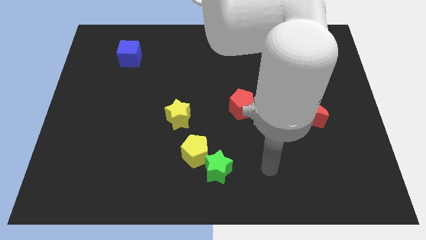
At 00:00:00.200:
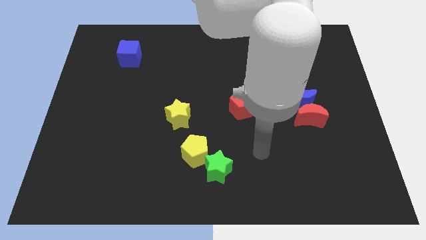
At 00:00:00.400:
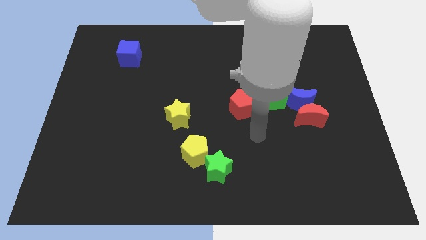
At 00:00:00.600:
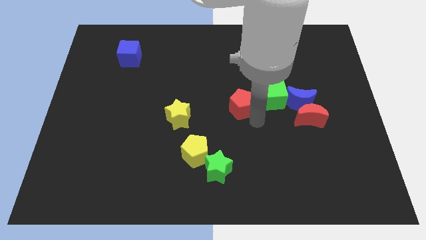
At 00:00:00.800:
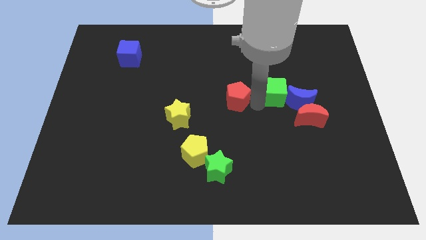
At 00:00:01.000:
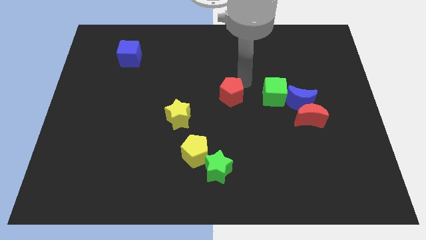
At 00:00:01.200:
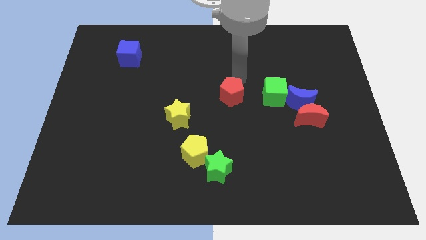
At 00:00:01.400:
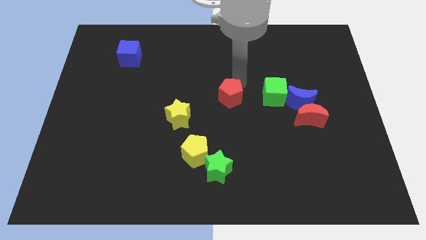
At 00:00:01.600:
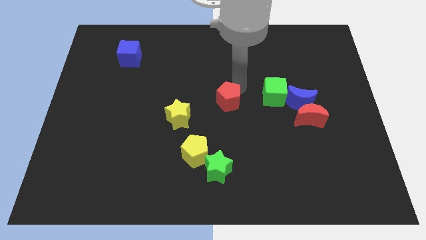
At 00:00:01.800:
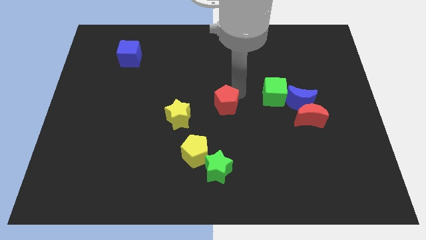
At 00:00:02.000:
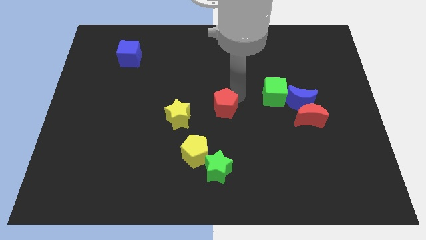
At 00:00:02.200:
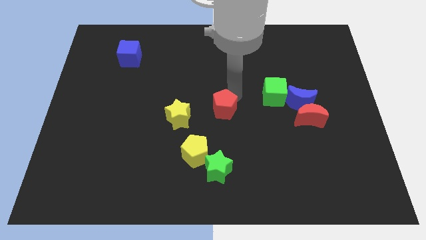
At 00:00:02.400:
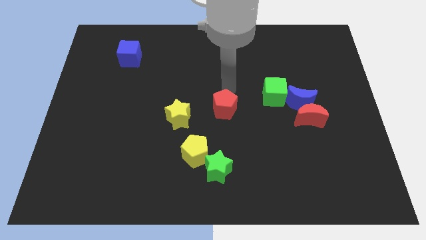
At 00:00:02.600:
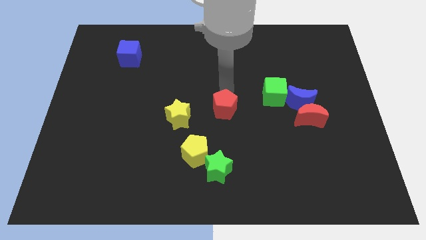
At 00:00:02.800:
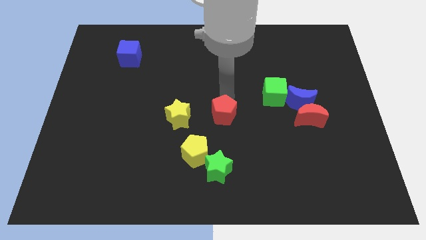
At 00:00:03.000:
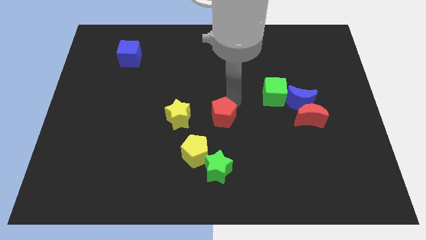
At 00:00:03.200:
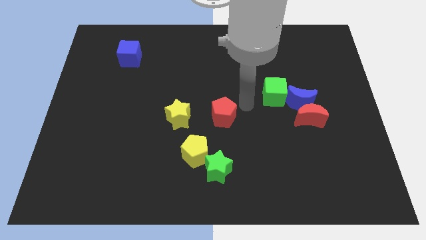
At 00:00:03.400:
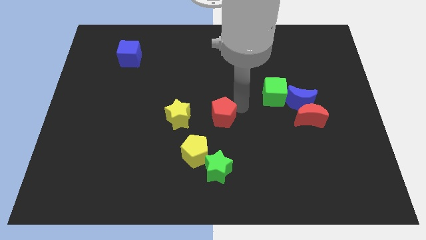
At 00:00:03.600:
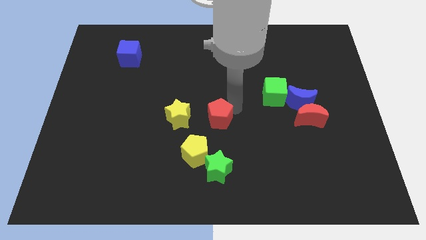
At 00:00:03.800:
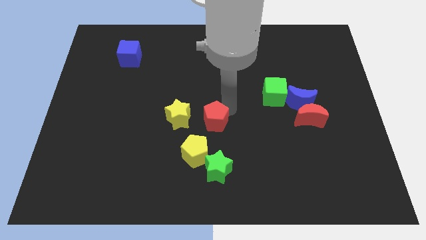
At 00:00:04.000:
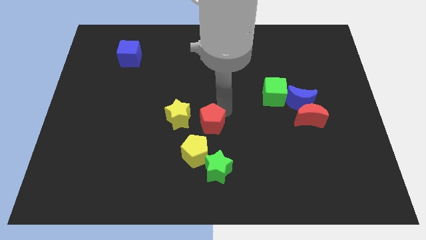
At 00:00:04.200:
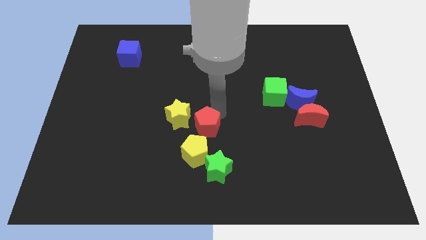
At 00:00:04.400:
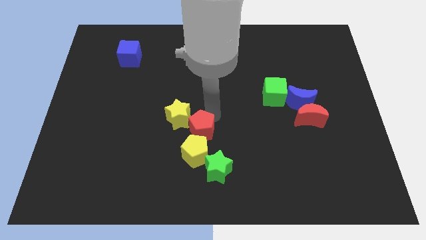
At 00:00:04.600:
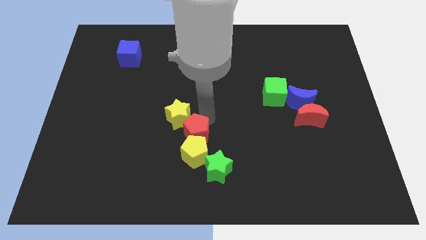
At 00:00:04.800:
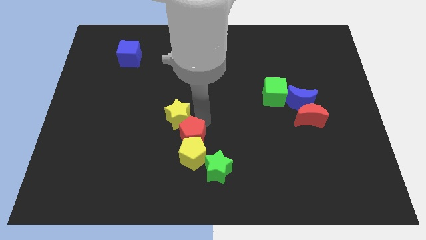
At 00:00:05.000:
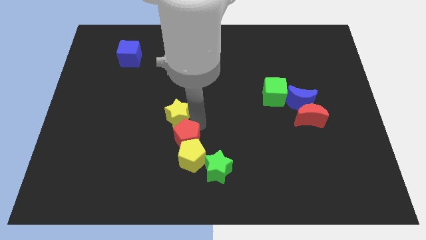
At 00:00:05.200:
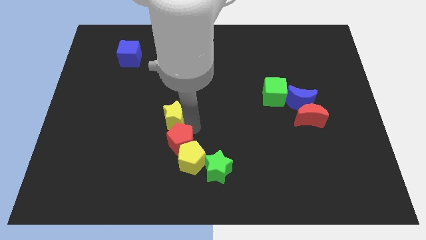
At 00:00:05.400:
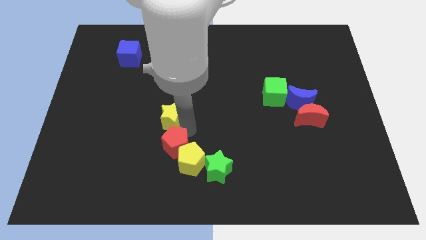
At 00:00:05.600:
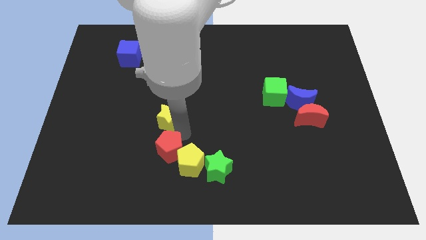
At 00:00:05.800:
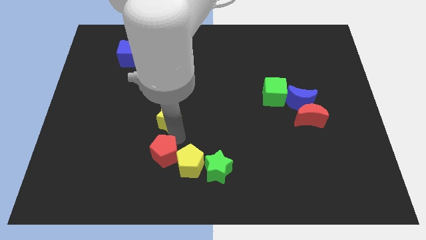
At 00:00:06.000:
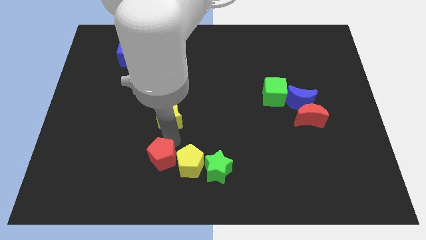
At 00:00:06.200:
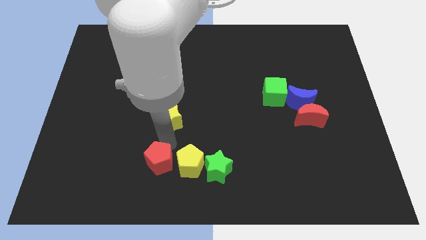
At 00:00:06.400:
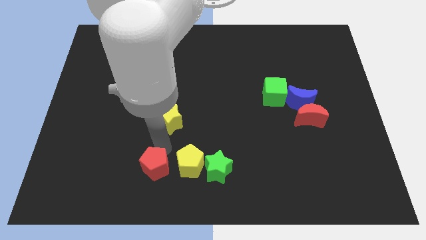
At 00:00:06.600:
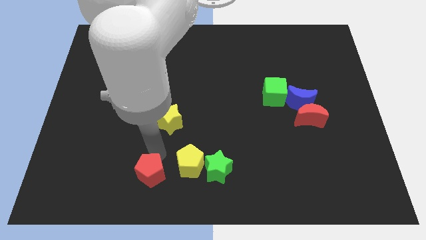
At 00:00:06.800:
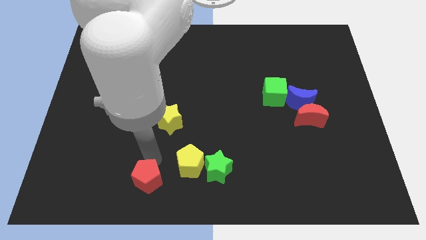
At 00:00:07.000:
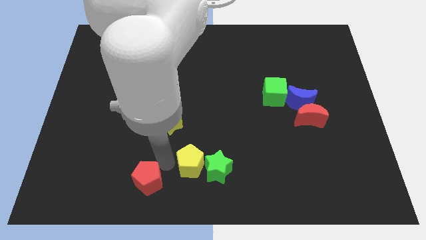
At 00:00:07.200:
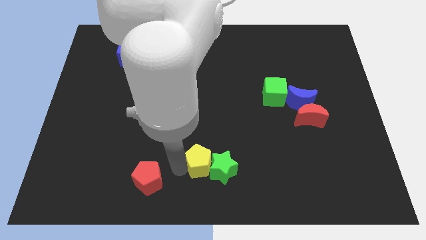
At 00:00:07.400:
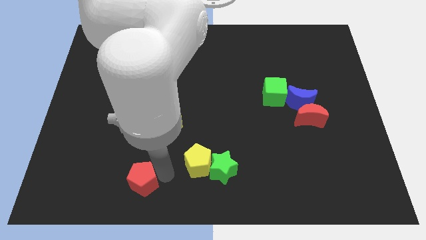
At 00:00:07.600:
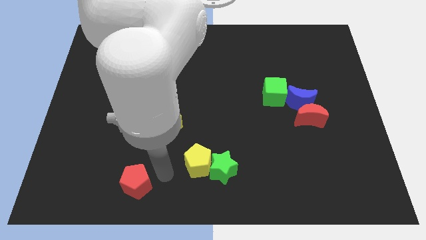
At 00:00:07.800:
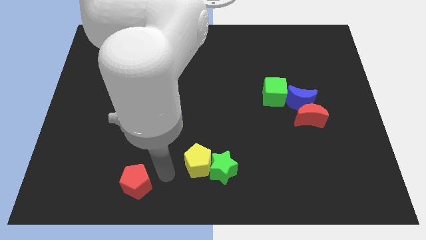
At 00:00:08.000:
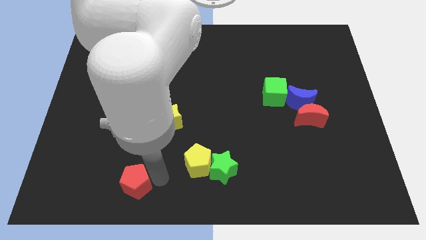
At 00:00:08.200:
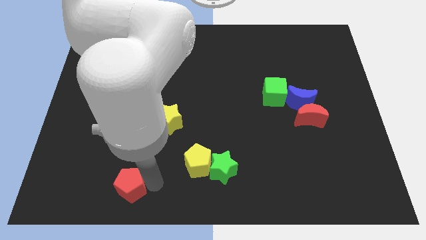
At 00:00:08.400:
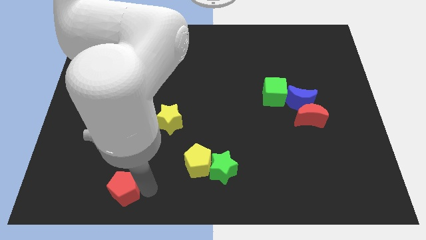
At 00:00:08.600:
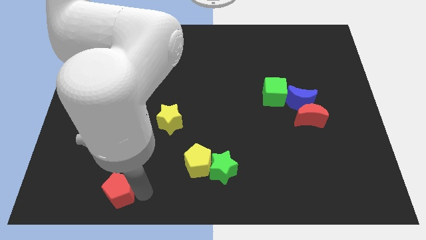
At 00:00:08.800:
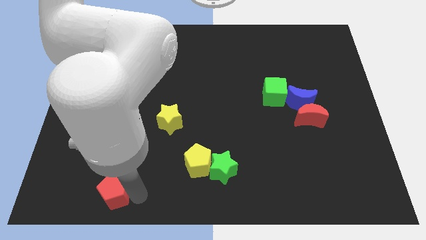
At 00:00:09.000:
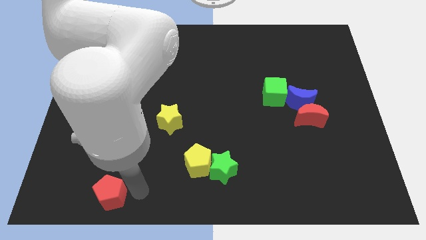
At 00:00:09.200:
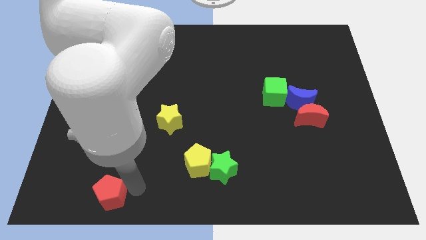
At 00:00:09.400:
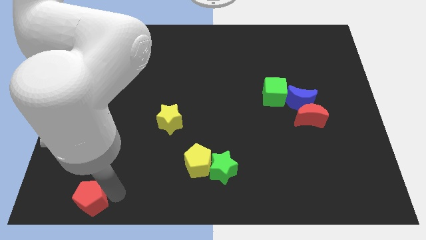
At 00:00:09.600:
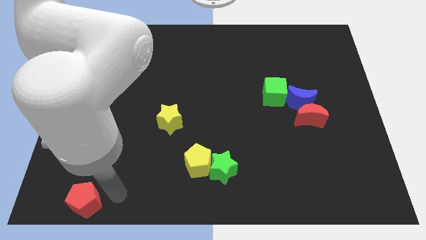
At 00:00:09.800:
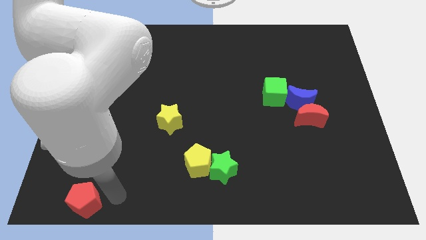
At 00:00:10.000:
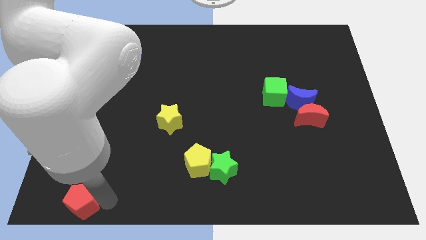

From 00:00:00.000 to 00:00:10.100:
push the red pentagon to the bottom left of the board

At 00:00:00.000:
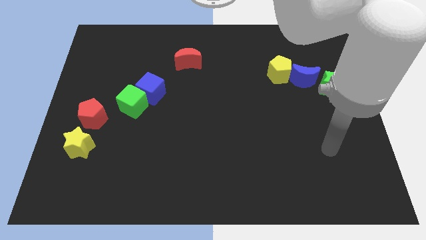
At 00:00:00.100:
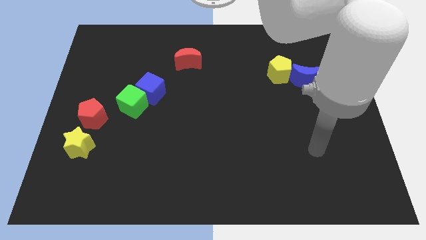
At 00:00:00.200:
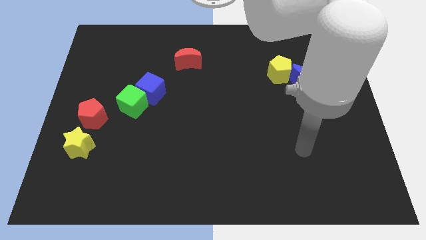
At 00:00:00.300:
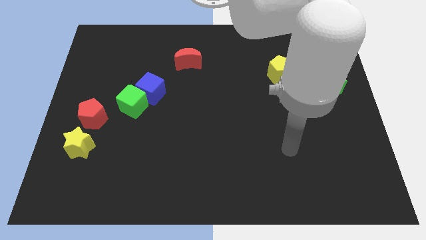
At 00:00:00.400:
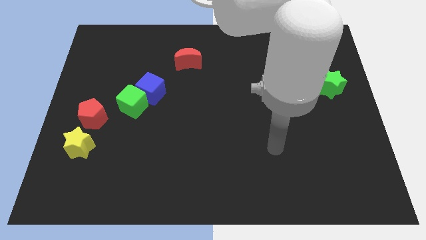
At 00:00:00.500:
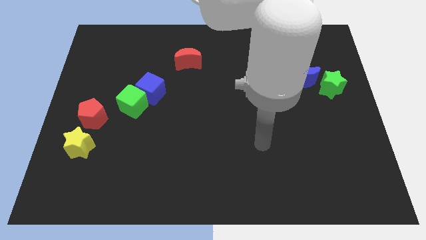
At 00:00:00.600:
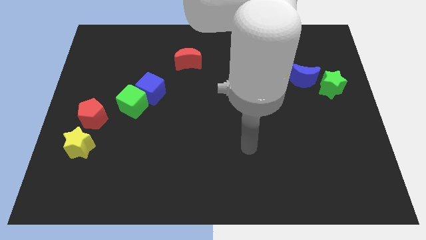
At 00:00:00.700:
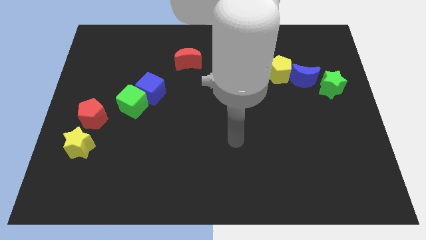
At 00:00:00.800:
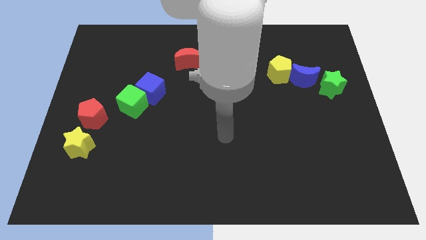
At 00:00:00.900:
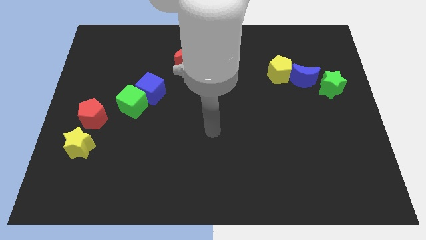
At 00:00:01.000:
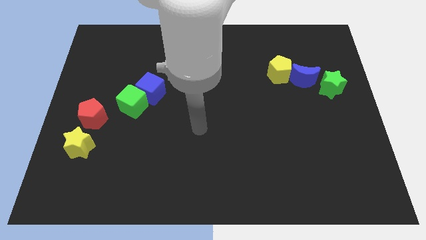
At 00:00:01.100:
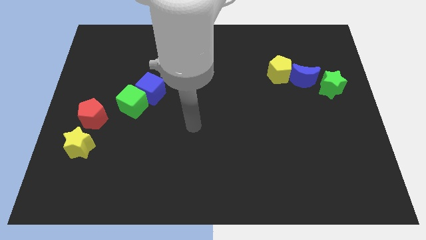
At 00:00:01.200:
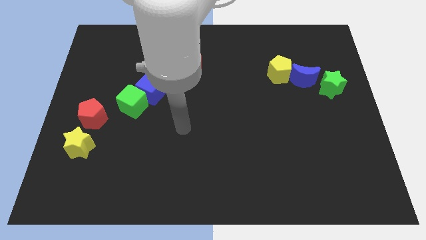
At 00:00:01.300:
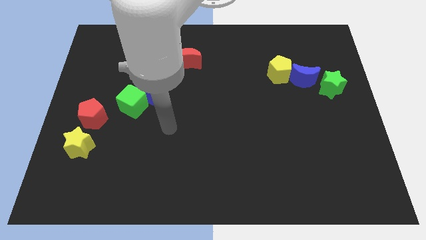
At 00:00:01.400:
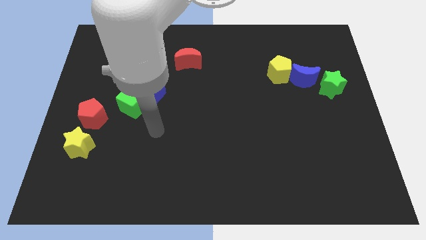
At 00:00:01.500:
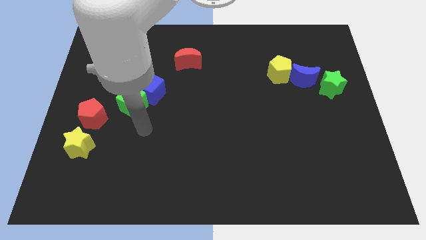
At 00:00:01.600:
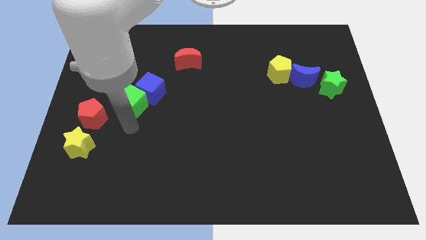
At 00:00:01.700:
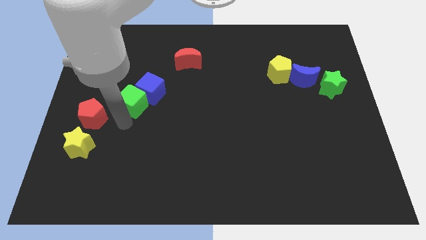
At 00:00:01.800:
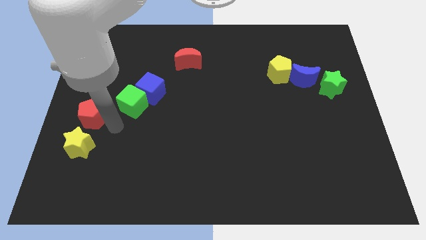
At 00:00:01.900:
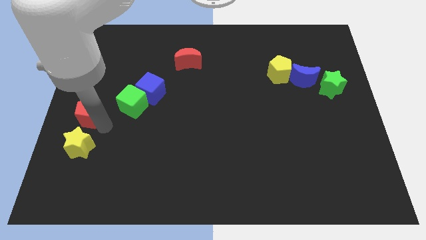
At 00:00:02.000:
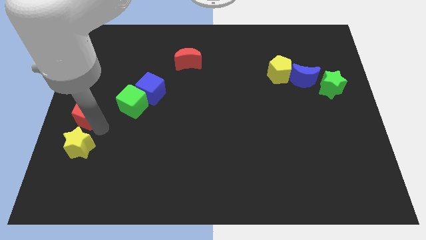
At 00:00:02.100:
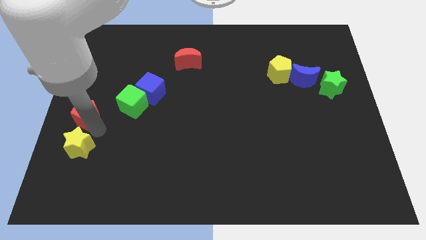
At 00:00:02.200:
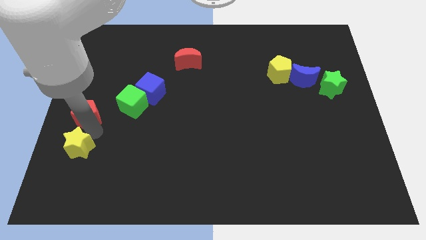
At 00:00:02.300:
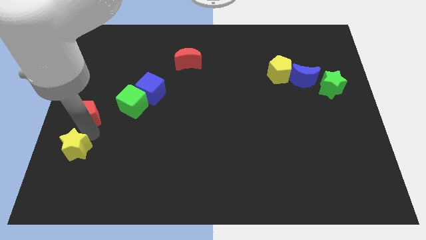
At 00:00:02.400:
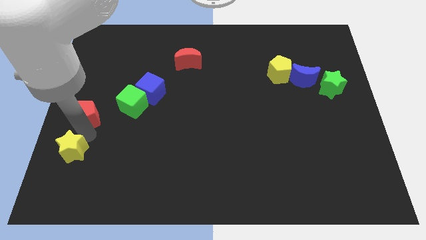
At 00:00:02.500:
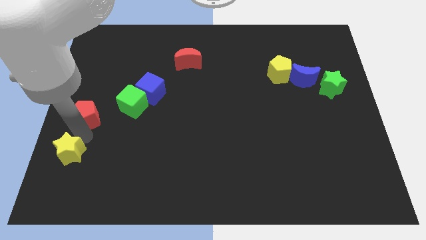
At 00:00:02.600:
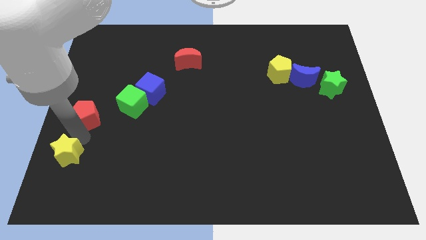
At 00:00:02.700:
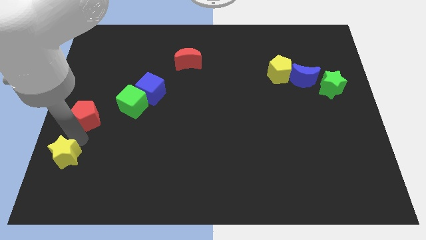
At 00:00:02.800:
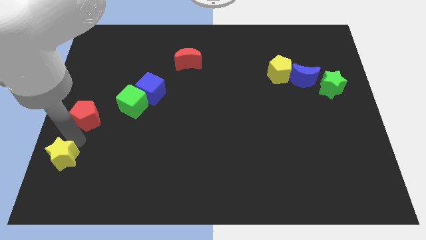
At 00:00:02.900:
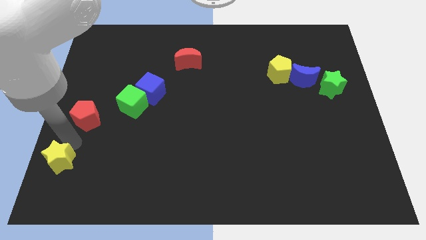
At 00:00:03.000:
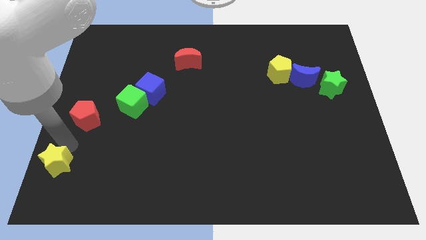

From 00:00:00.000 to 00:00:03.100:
put the yellow star to the bottom left of the board
